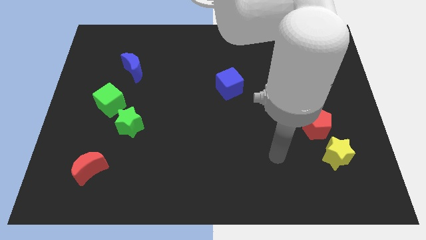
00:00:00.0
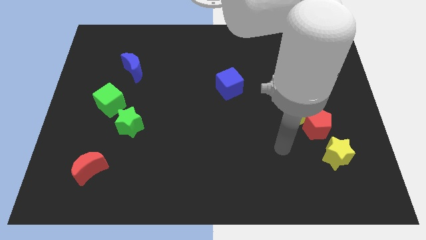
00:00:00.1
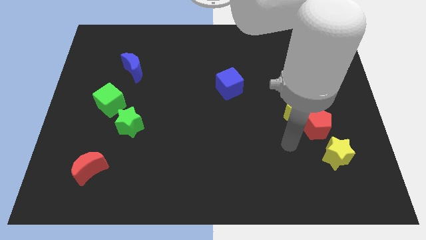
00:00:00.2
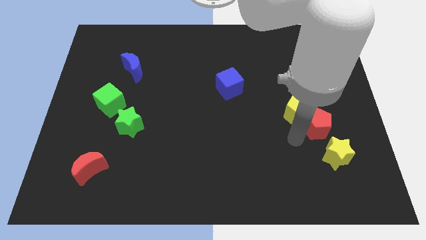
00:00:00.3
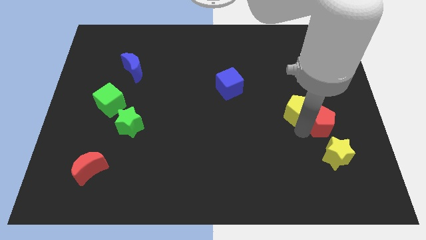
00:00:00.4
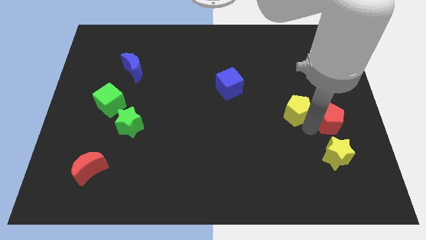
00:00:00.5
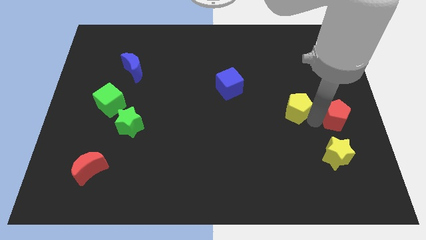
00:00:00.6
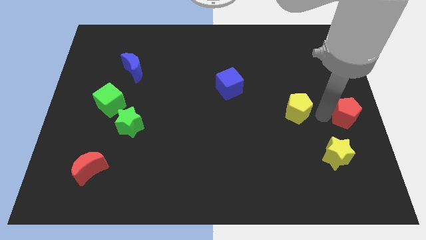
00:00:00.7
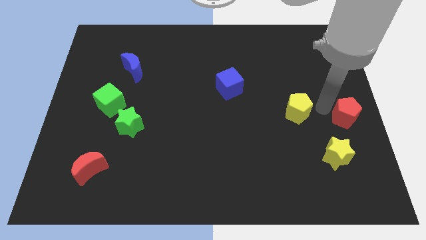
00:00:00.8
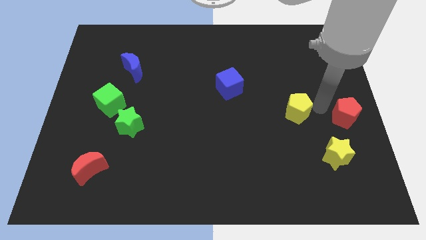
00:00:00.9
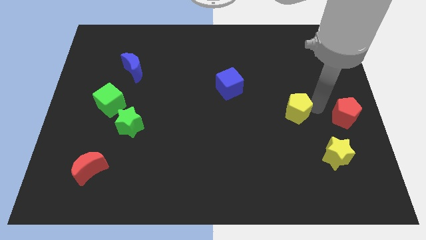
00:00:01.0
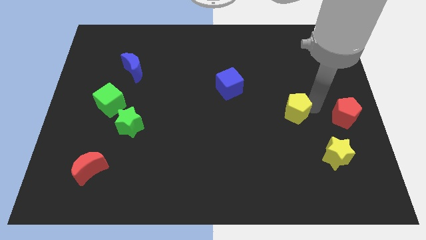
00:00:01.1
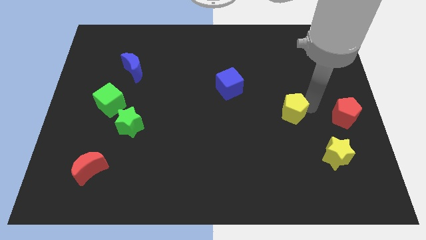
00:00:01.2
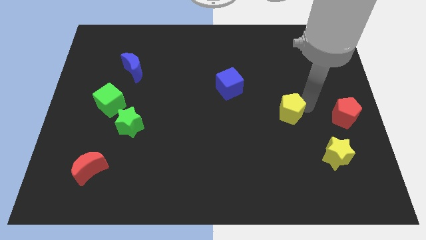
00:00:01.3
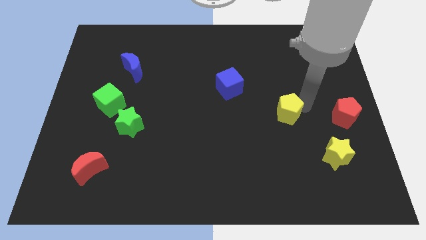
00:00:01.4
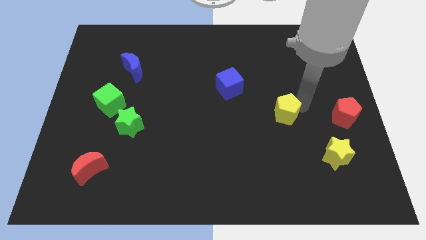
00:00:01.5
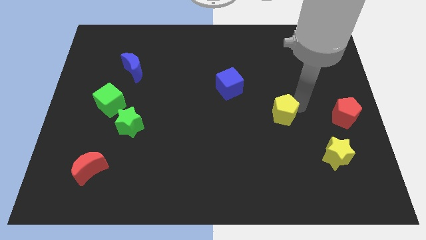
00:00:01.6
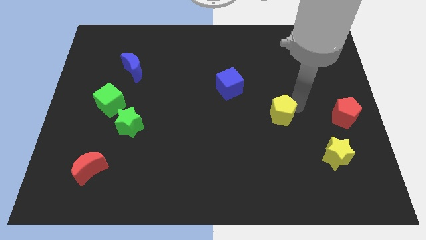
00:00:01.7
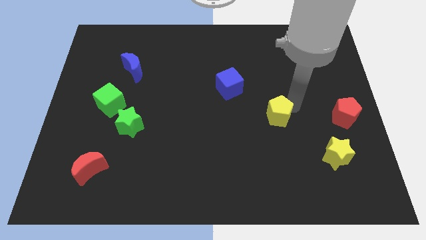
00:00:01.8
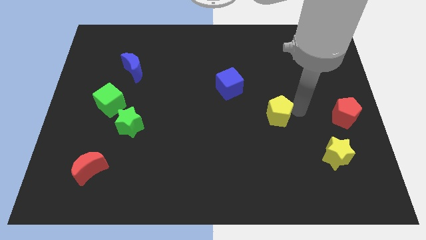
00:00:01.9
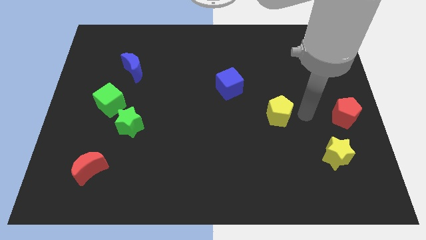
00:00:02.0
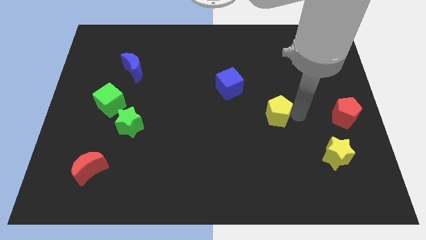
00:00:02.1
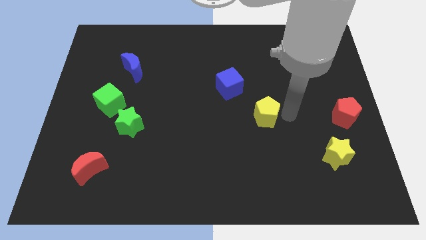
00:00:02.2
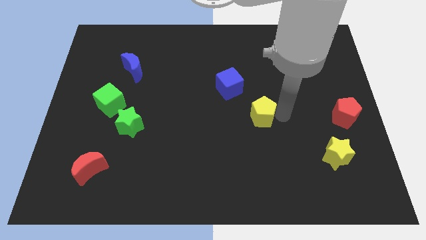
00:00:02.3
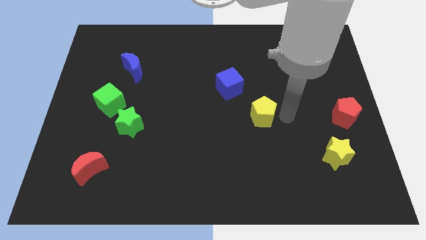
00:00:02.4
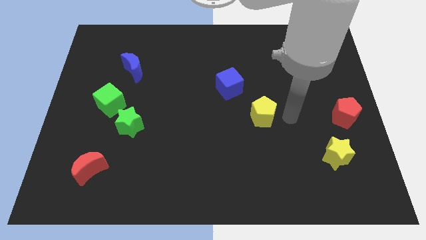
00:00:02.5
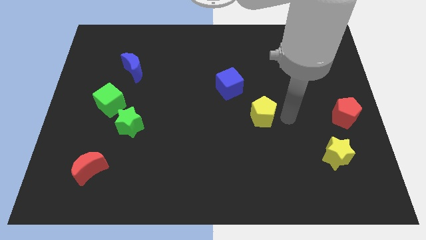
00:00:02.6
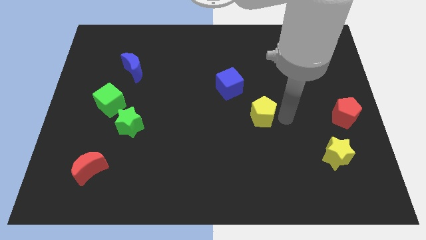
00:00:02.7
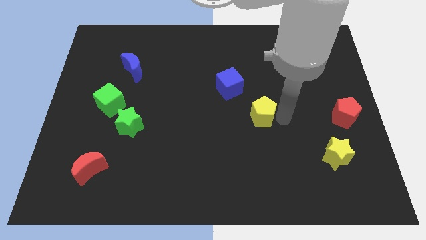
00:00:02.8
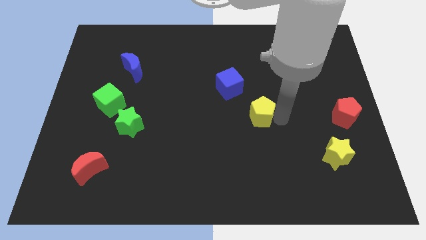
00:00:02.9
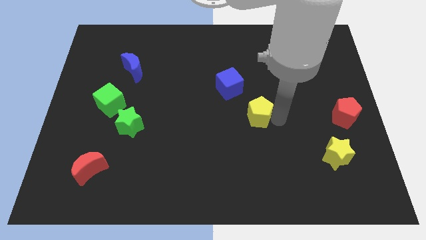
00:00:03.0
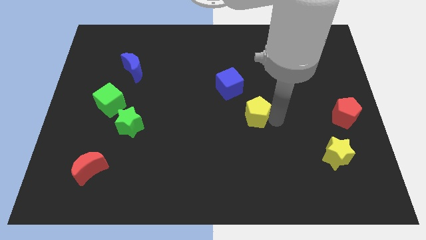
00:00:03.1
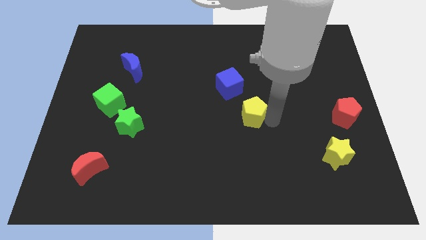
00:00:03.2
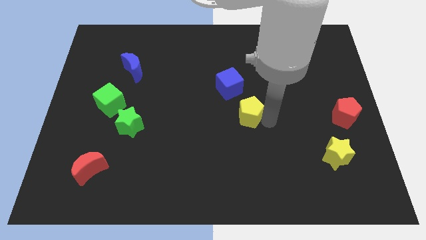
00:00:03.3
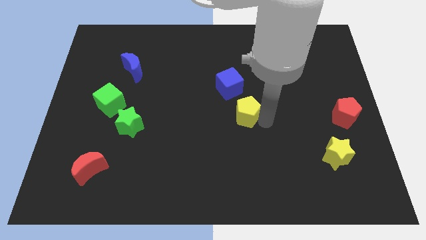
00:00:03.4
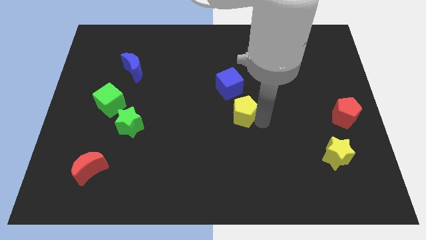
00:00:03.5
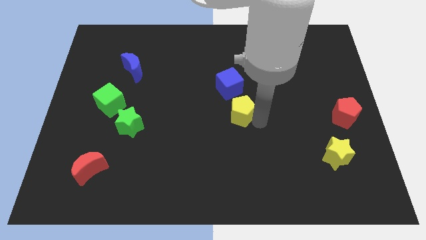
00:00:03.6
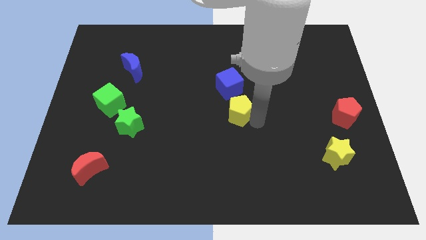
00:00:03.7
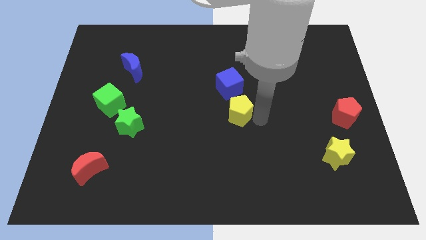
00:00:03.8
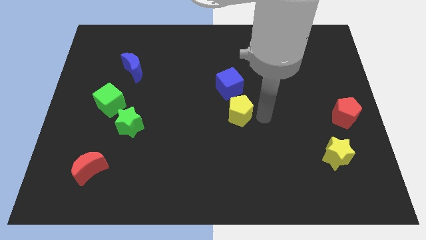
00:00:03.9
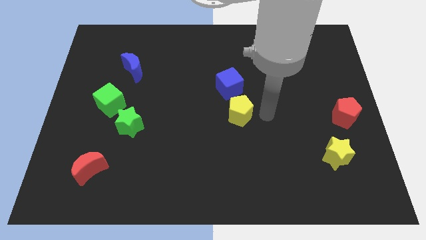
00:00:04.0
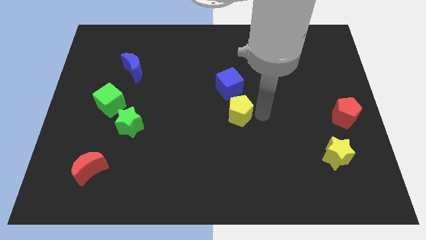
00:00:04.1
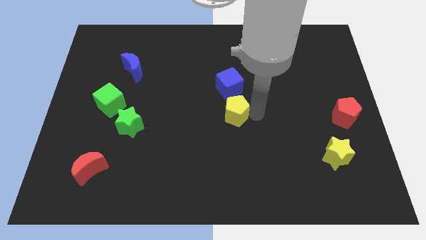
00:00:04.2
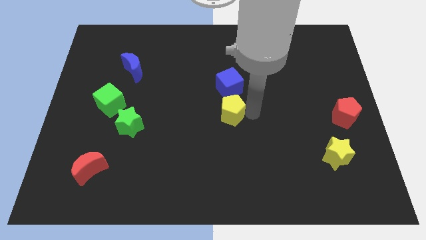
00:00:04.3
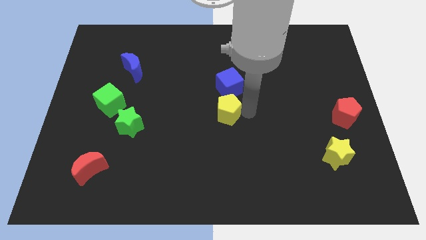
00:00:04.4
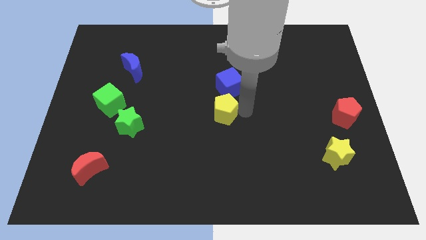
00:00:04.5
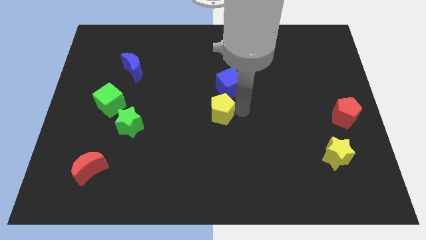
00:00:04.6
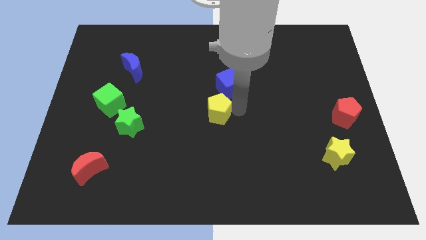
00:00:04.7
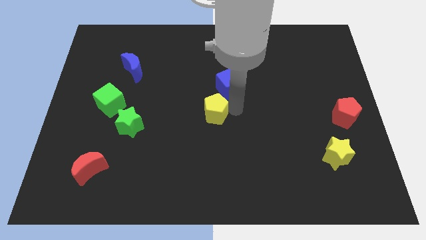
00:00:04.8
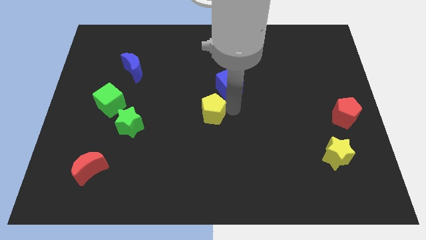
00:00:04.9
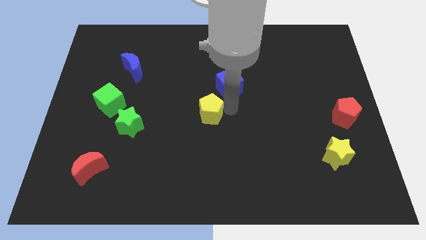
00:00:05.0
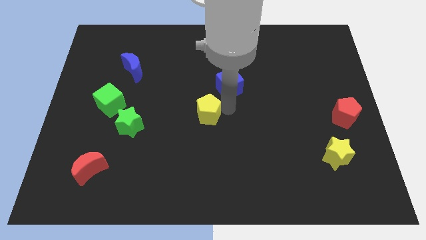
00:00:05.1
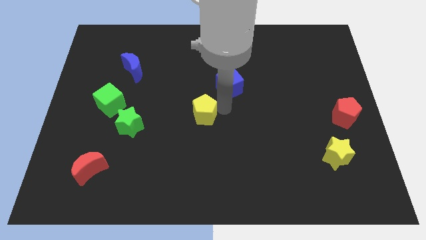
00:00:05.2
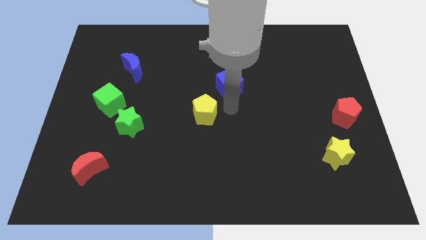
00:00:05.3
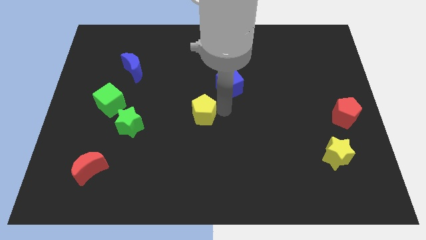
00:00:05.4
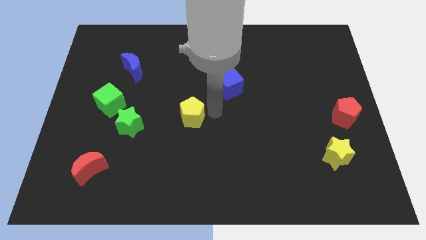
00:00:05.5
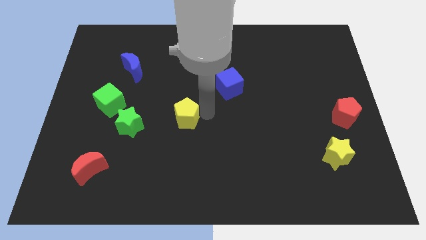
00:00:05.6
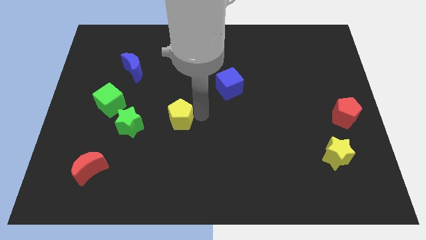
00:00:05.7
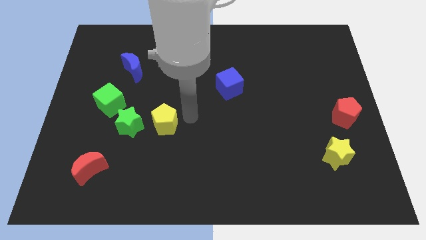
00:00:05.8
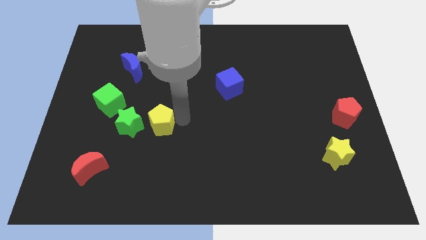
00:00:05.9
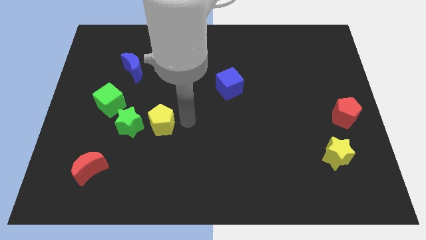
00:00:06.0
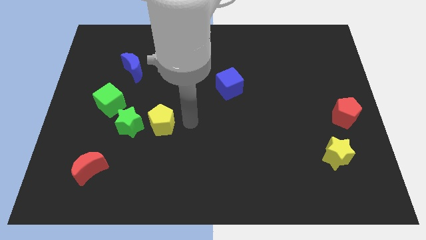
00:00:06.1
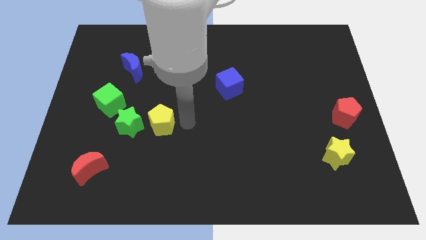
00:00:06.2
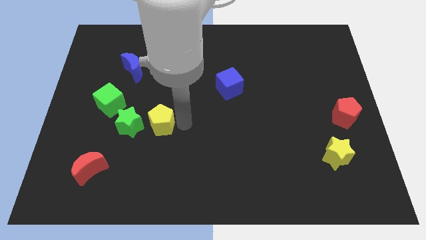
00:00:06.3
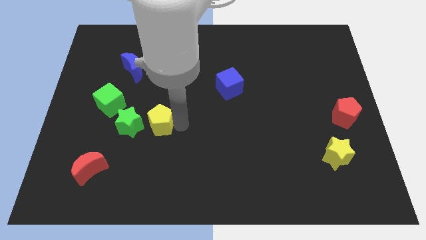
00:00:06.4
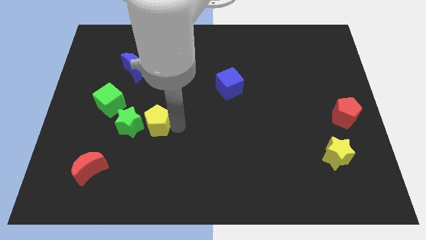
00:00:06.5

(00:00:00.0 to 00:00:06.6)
slide the yellow pentagon next to the green star
